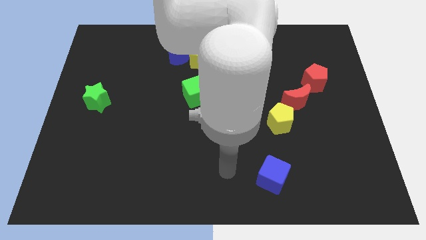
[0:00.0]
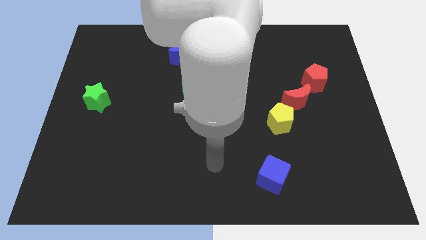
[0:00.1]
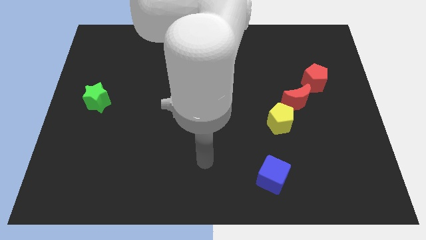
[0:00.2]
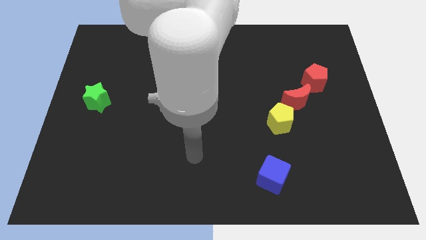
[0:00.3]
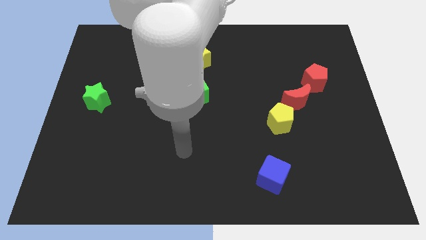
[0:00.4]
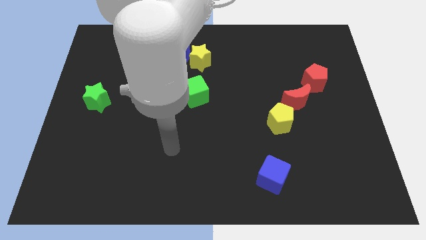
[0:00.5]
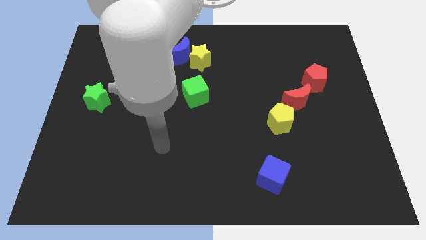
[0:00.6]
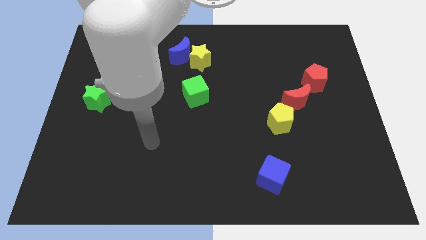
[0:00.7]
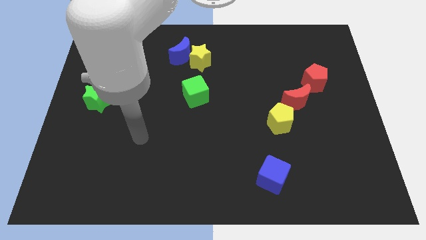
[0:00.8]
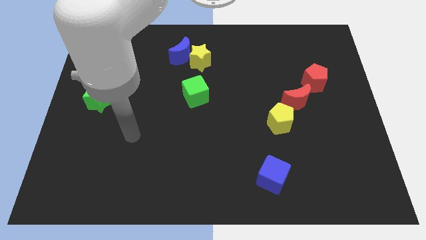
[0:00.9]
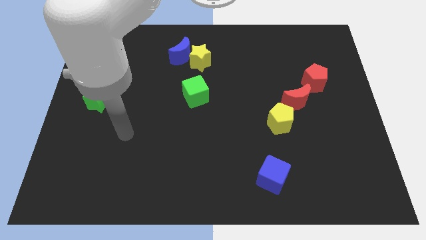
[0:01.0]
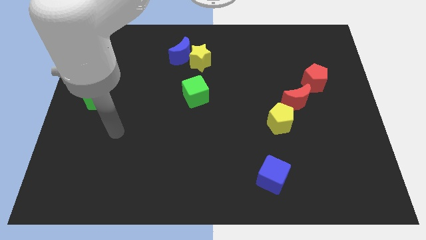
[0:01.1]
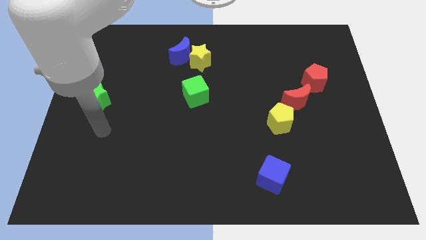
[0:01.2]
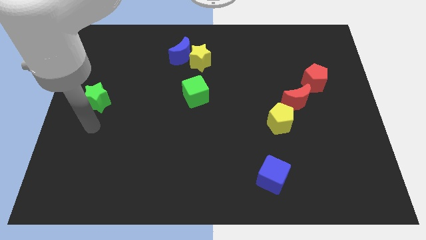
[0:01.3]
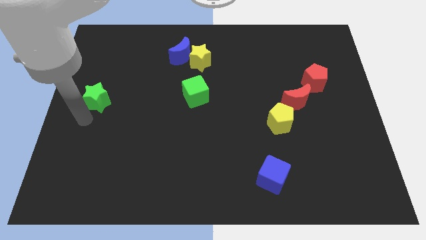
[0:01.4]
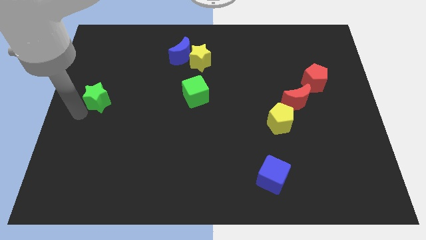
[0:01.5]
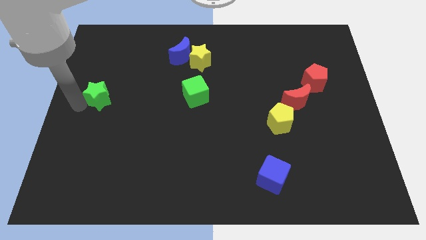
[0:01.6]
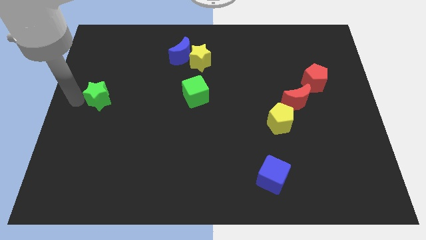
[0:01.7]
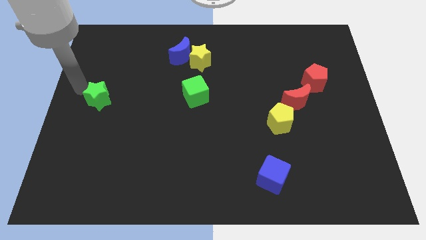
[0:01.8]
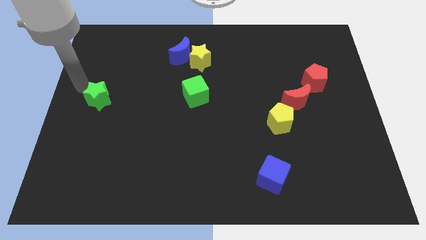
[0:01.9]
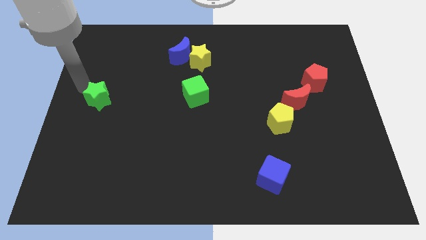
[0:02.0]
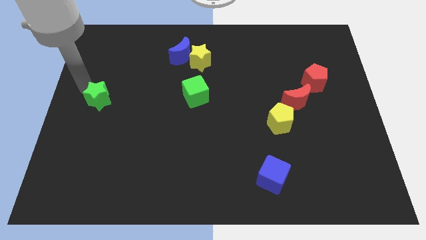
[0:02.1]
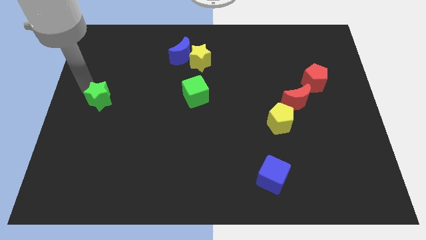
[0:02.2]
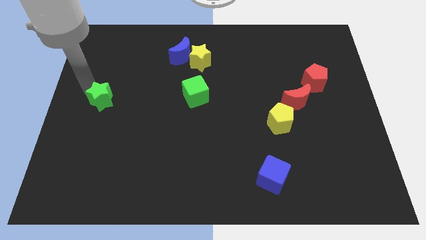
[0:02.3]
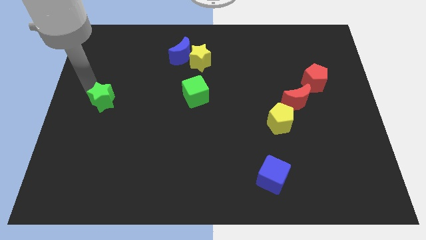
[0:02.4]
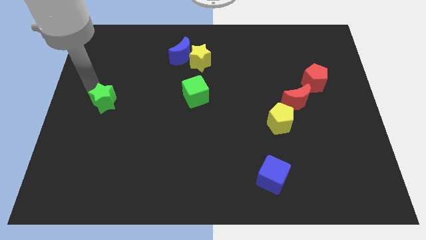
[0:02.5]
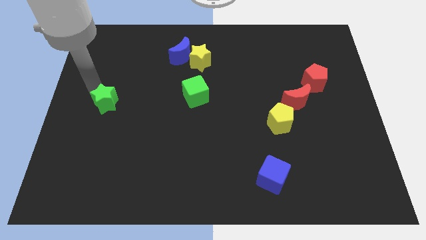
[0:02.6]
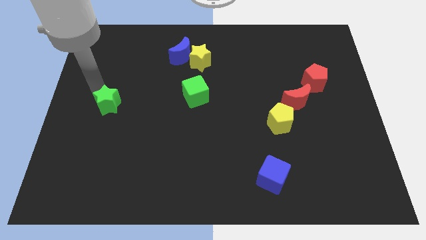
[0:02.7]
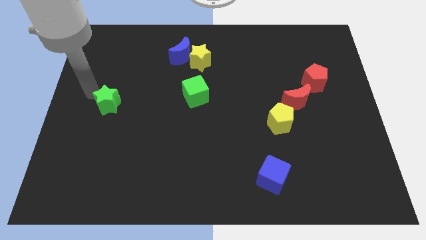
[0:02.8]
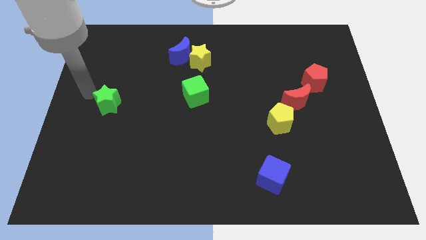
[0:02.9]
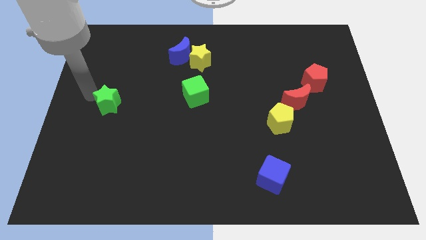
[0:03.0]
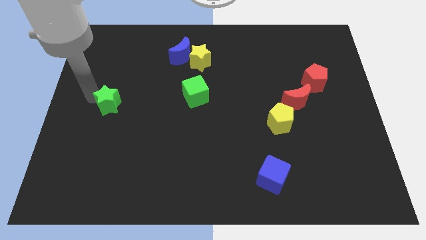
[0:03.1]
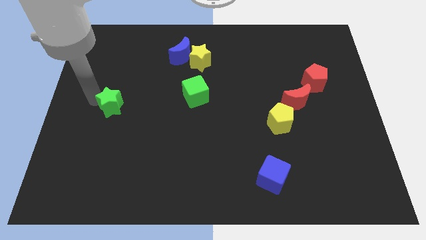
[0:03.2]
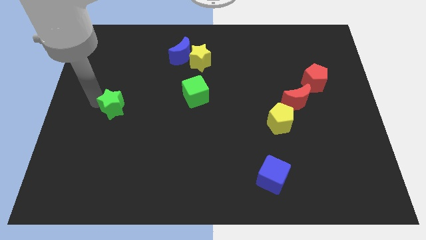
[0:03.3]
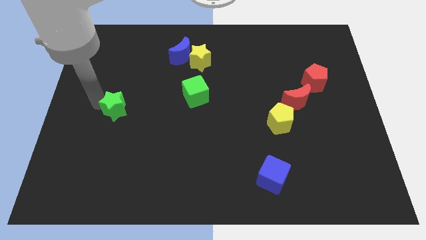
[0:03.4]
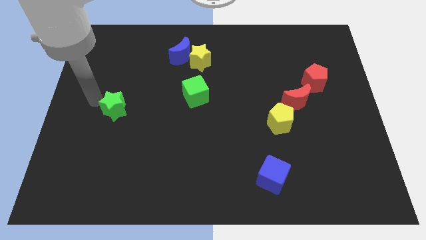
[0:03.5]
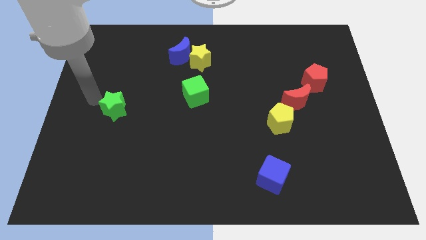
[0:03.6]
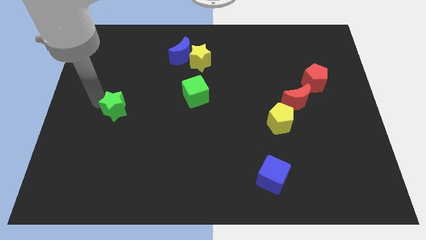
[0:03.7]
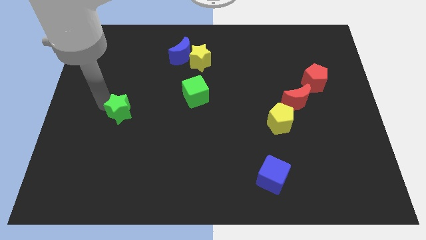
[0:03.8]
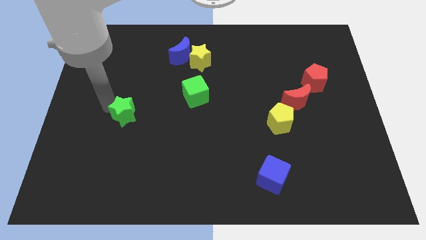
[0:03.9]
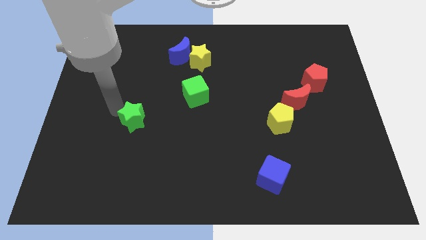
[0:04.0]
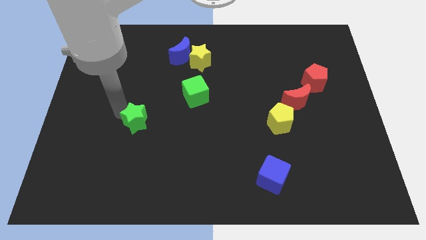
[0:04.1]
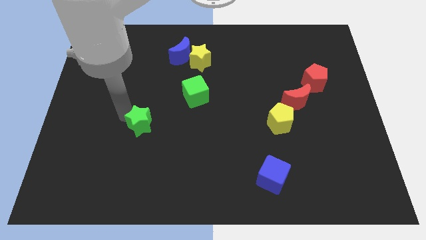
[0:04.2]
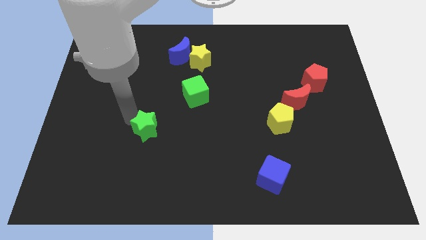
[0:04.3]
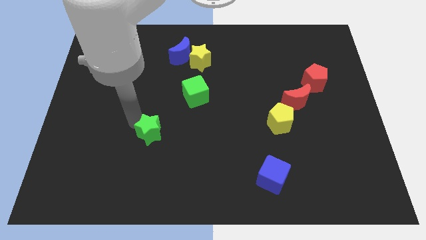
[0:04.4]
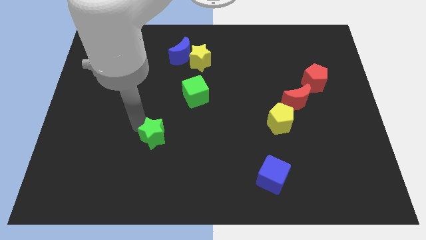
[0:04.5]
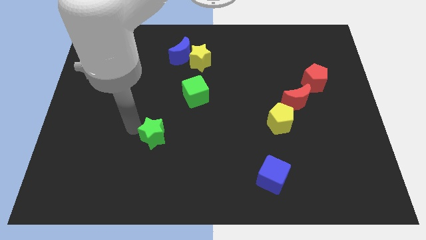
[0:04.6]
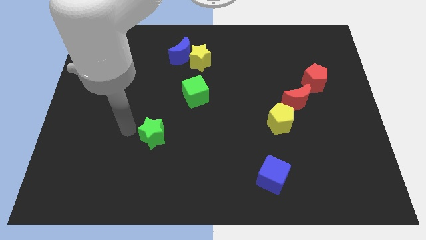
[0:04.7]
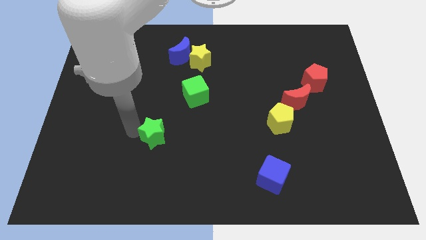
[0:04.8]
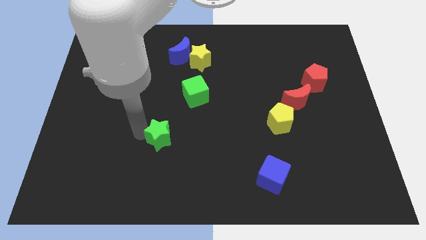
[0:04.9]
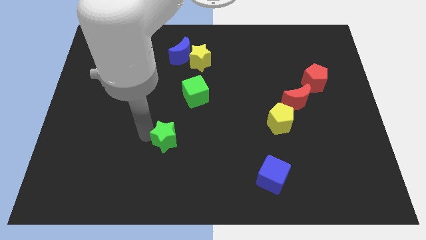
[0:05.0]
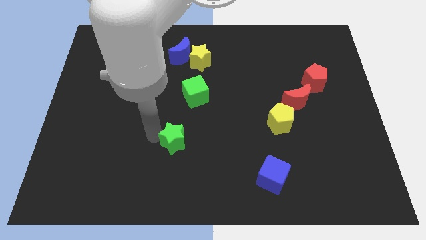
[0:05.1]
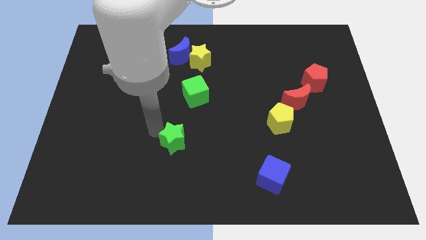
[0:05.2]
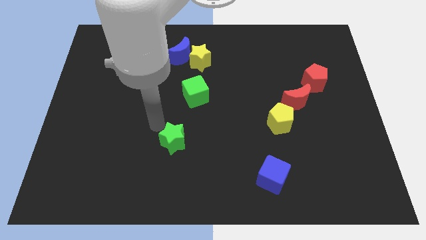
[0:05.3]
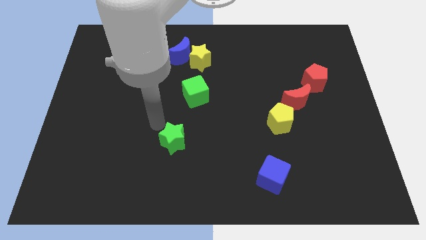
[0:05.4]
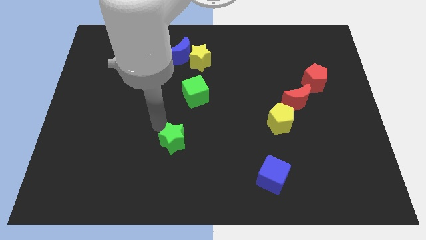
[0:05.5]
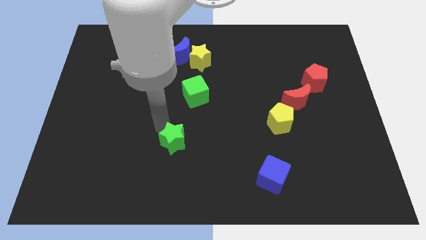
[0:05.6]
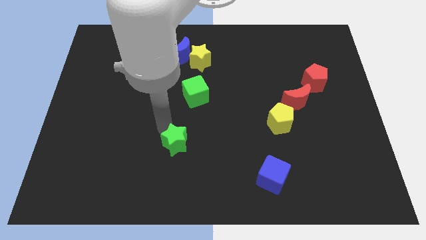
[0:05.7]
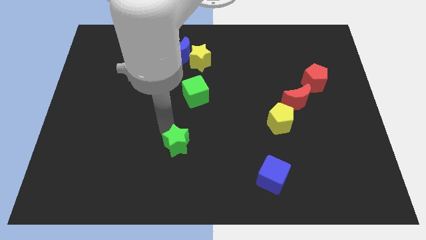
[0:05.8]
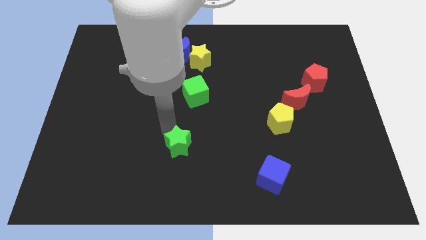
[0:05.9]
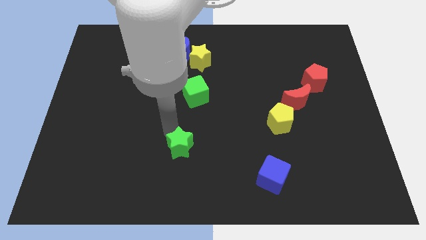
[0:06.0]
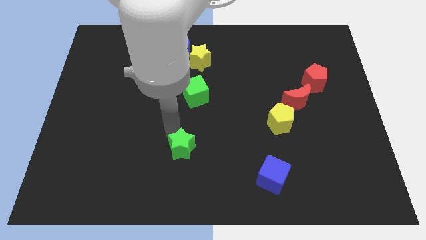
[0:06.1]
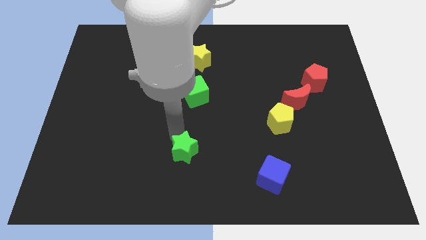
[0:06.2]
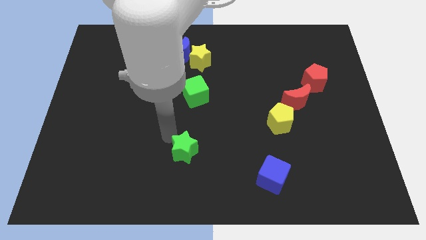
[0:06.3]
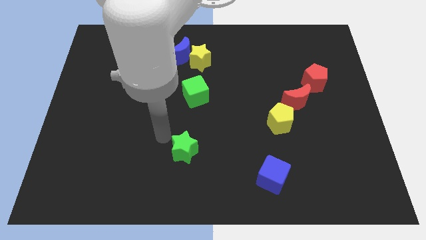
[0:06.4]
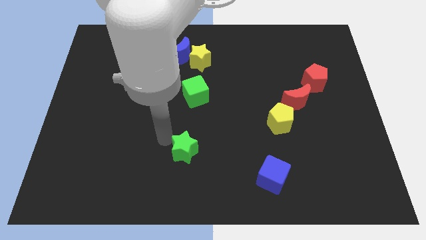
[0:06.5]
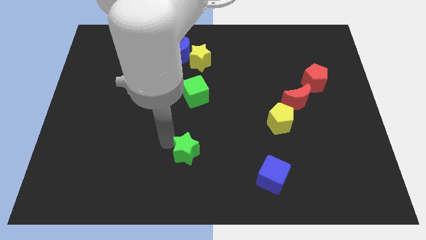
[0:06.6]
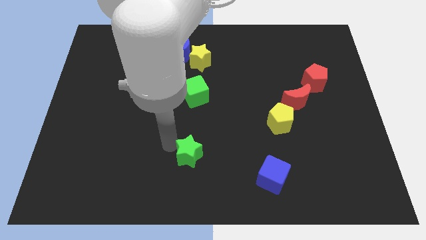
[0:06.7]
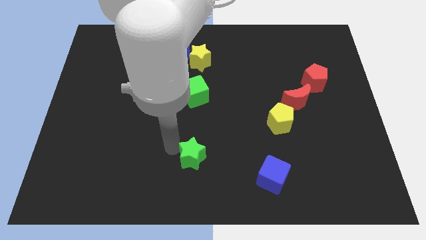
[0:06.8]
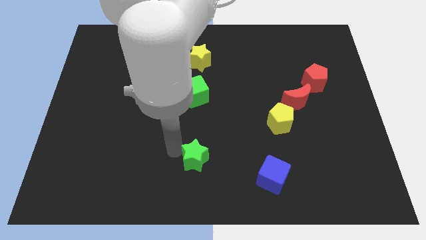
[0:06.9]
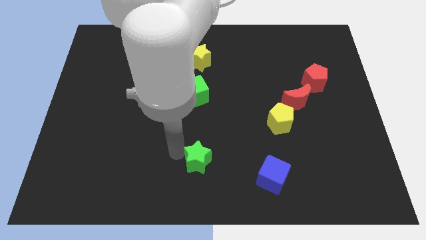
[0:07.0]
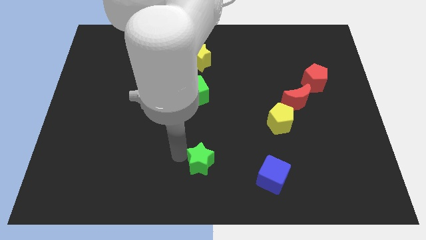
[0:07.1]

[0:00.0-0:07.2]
push the green star left of the blue cube

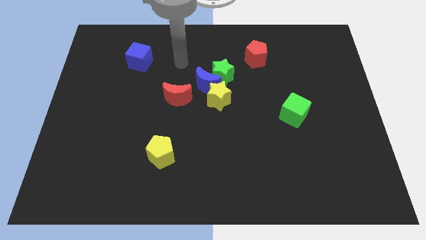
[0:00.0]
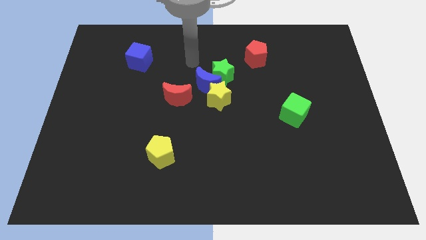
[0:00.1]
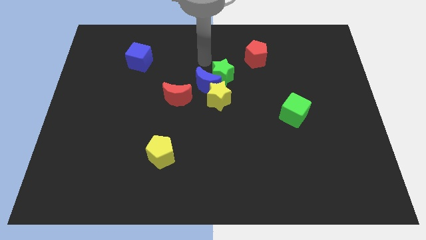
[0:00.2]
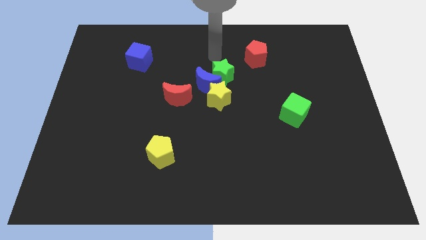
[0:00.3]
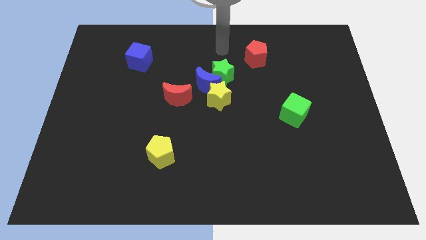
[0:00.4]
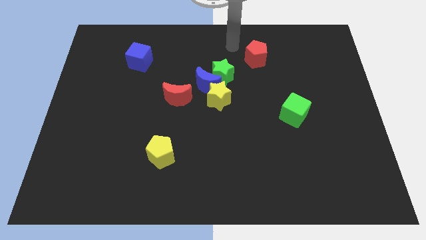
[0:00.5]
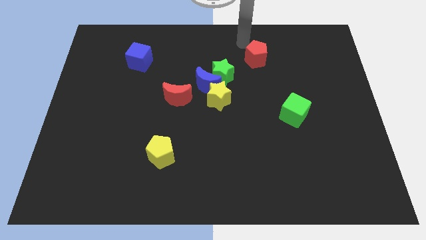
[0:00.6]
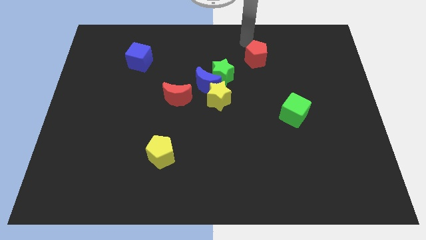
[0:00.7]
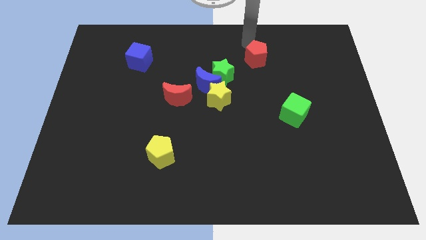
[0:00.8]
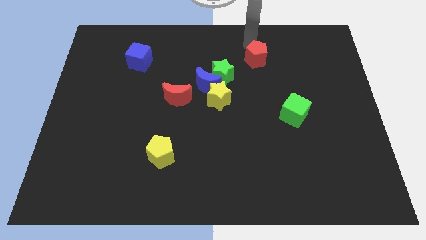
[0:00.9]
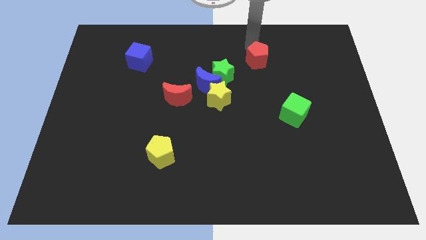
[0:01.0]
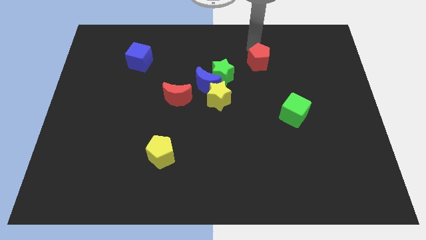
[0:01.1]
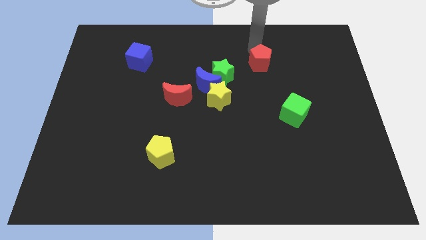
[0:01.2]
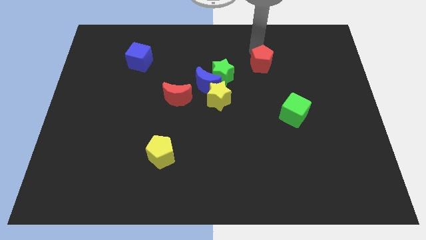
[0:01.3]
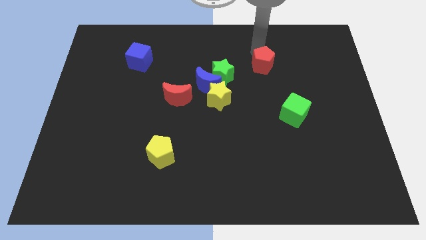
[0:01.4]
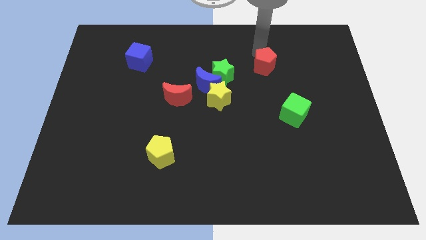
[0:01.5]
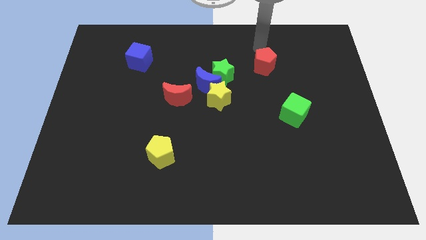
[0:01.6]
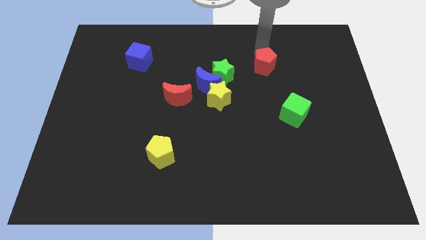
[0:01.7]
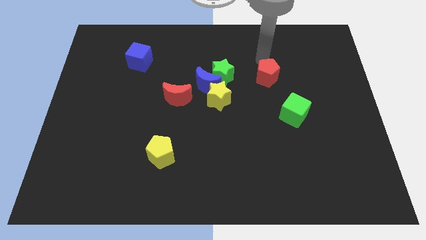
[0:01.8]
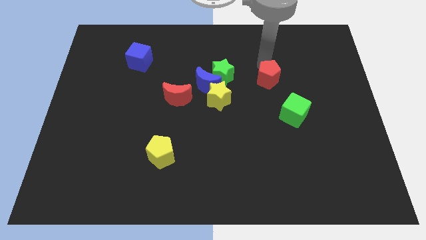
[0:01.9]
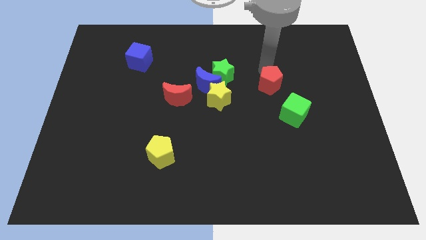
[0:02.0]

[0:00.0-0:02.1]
slide the red pentagon to the top left of the green cube
